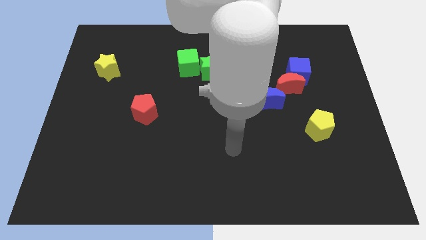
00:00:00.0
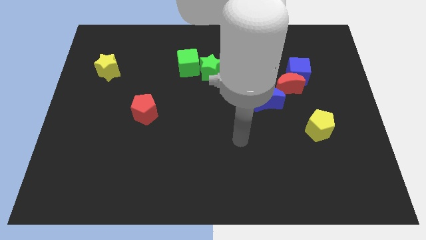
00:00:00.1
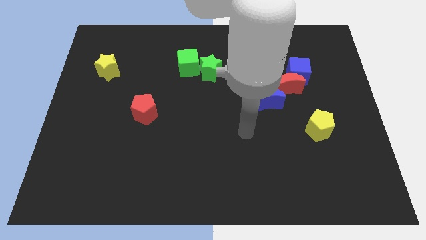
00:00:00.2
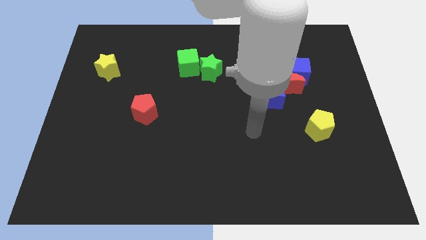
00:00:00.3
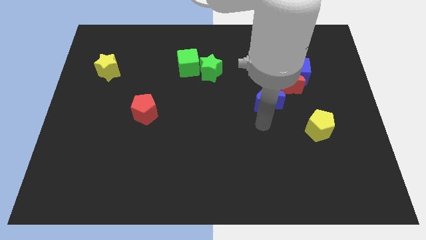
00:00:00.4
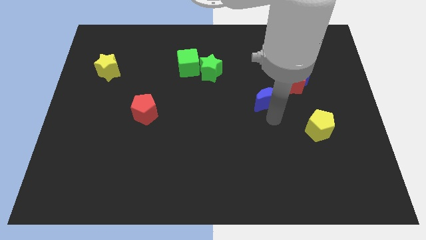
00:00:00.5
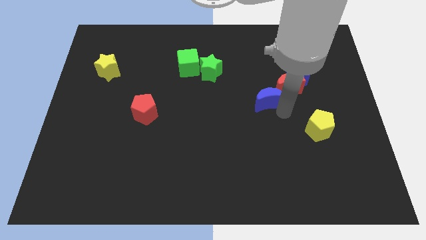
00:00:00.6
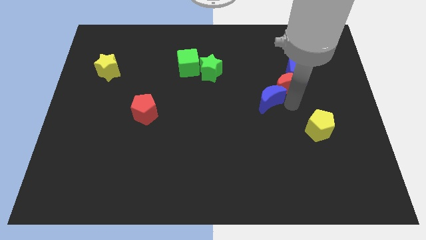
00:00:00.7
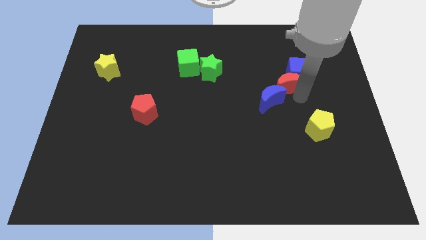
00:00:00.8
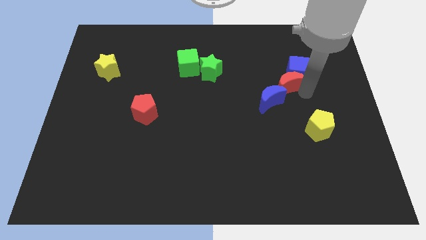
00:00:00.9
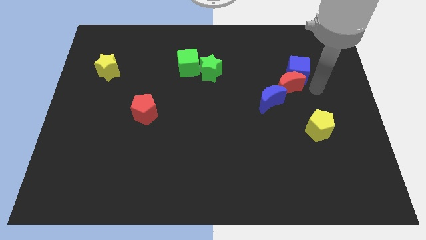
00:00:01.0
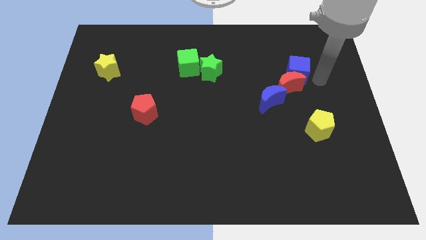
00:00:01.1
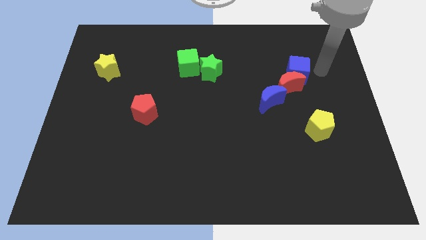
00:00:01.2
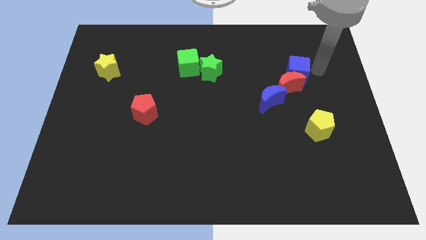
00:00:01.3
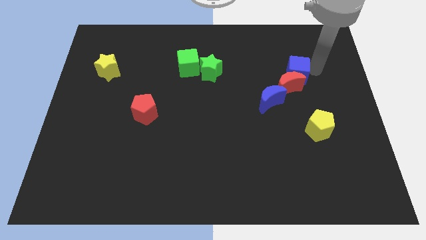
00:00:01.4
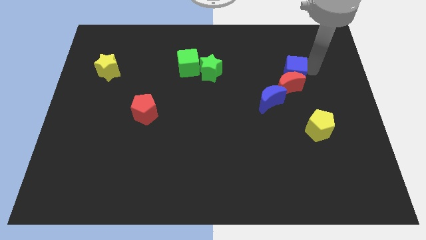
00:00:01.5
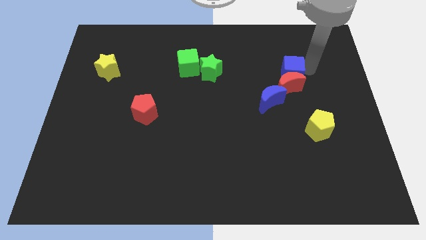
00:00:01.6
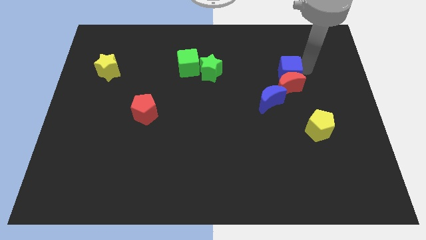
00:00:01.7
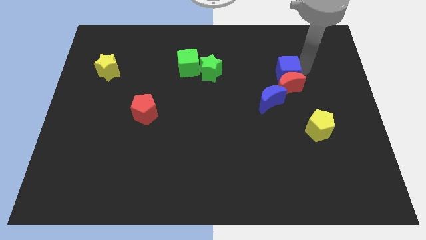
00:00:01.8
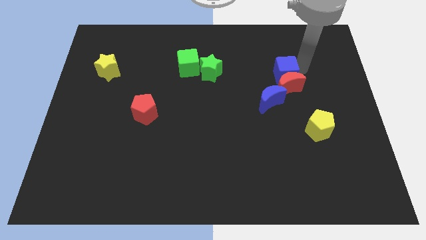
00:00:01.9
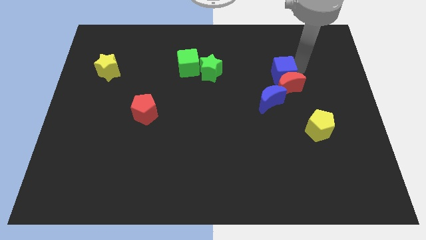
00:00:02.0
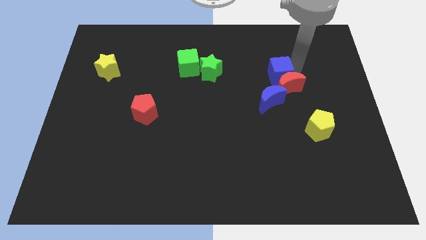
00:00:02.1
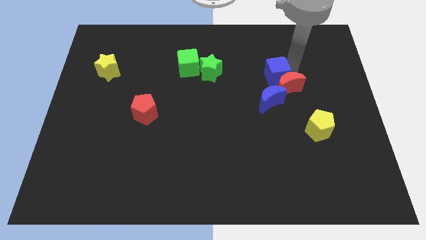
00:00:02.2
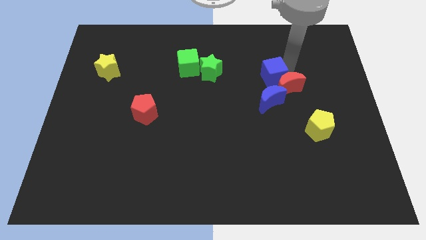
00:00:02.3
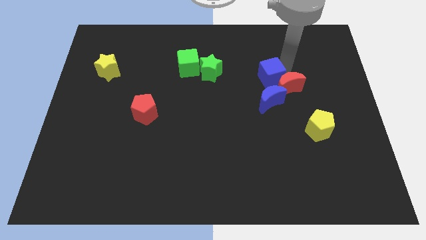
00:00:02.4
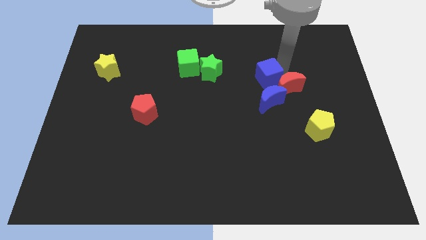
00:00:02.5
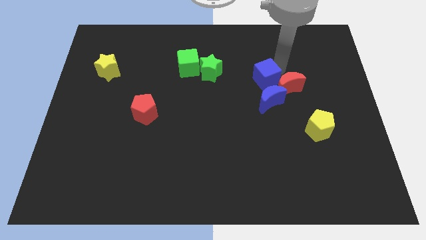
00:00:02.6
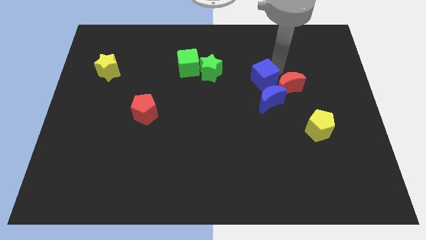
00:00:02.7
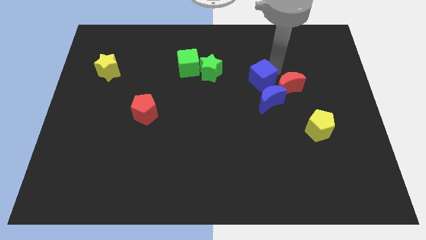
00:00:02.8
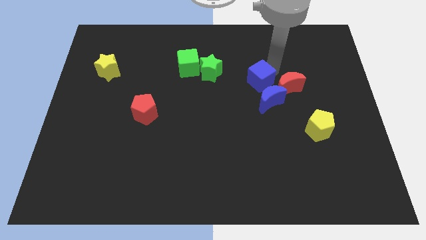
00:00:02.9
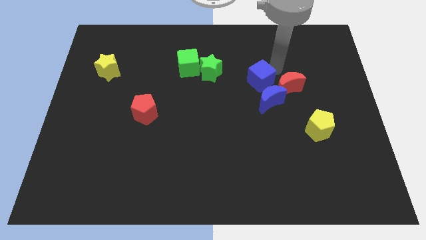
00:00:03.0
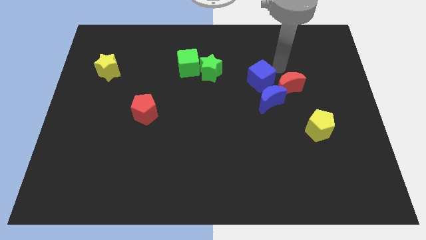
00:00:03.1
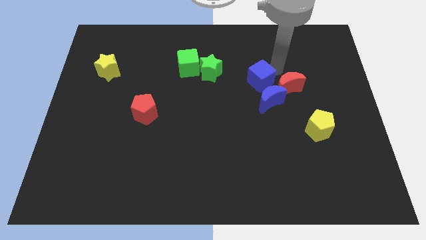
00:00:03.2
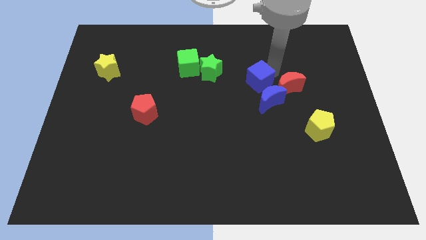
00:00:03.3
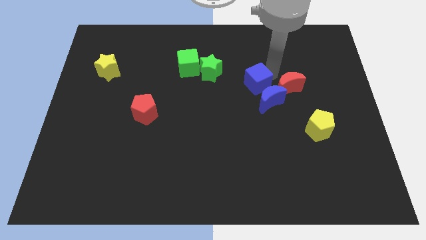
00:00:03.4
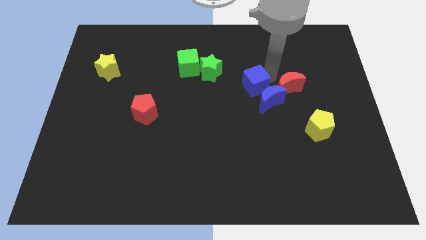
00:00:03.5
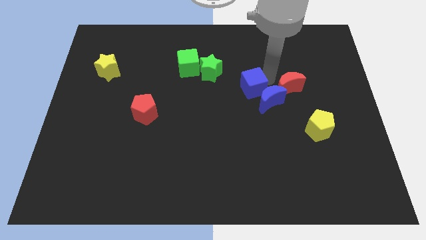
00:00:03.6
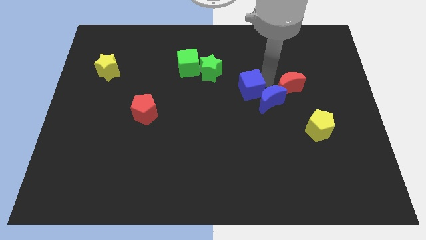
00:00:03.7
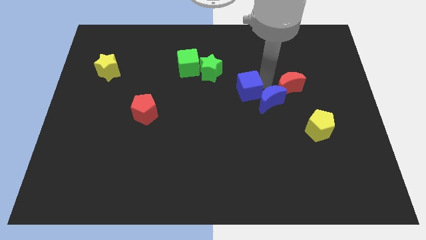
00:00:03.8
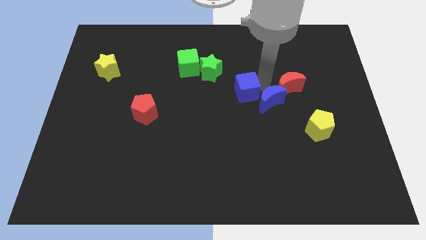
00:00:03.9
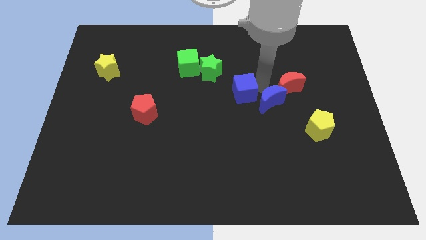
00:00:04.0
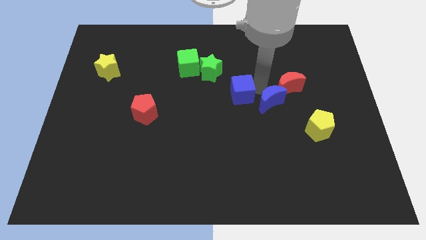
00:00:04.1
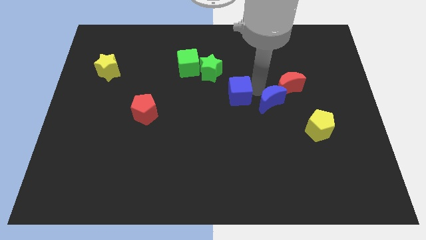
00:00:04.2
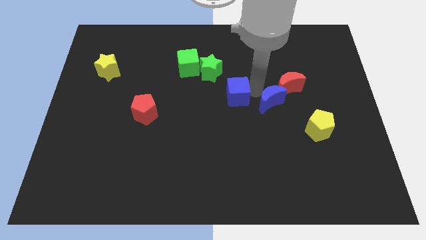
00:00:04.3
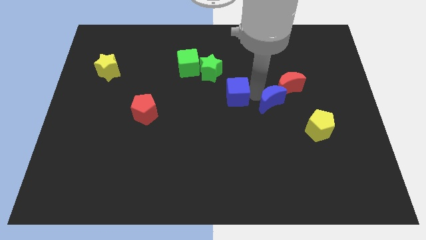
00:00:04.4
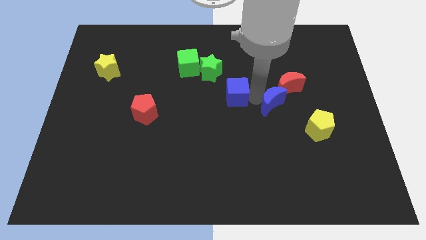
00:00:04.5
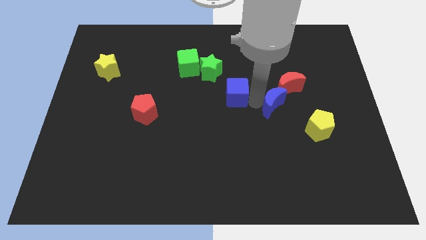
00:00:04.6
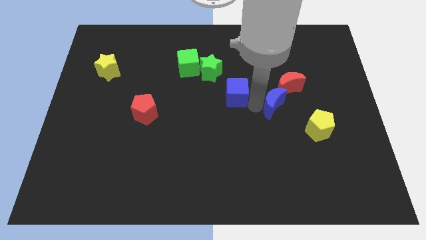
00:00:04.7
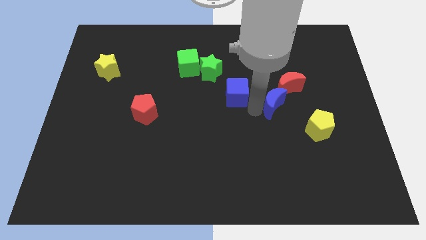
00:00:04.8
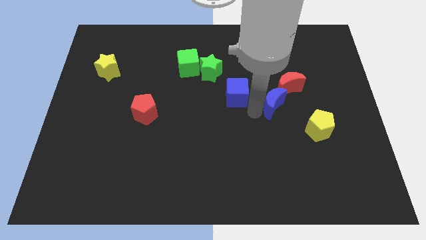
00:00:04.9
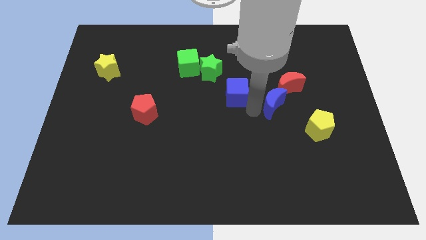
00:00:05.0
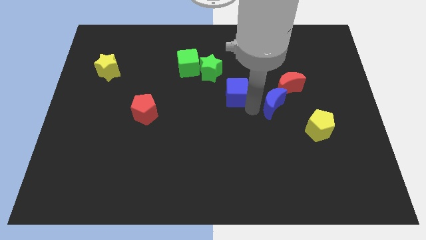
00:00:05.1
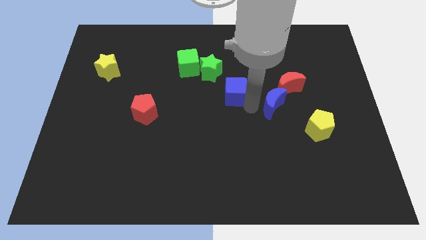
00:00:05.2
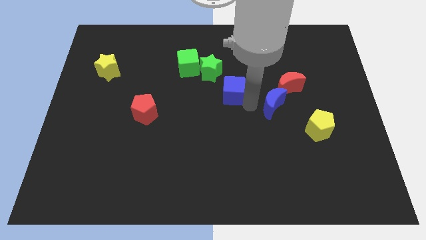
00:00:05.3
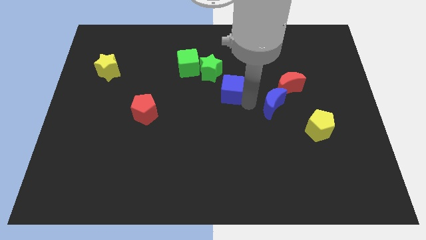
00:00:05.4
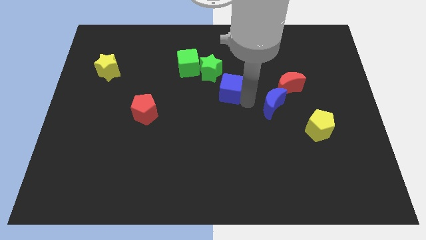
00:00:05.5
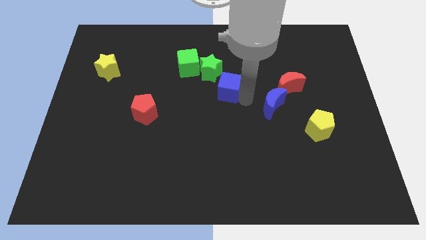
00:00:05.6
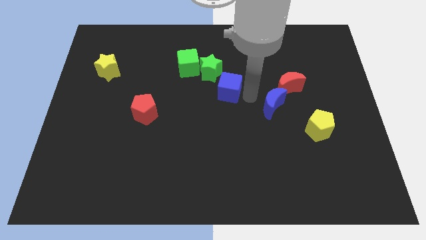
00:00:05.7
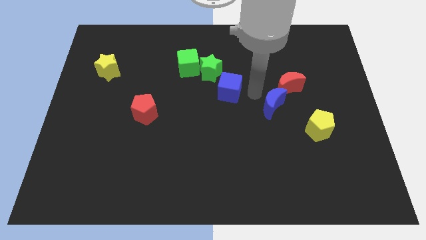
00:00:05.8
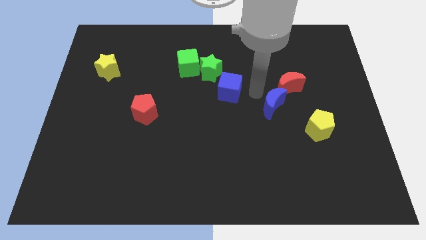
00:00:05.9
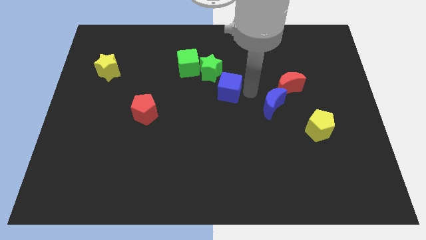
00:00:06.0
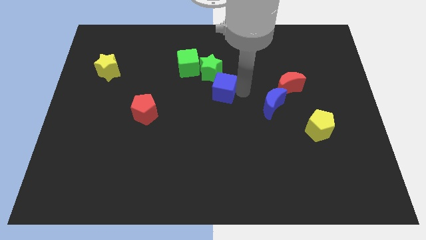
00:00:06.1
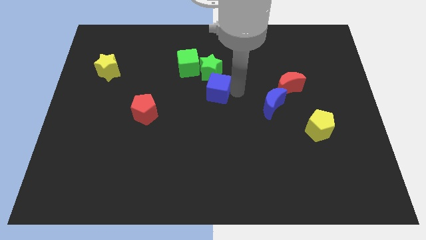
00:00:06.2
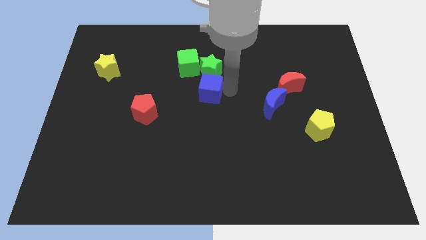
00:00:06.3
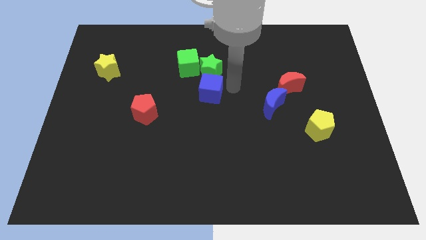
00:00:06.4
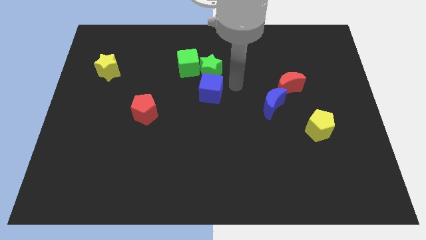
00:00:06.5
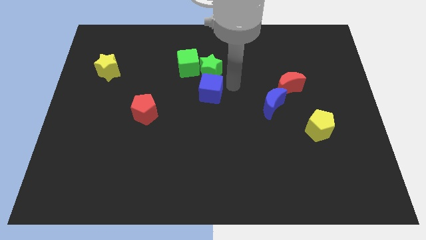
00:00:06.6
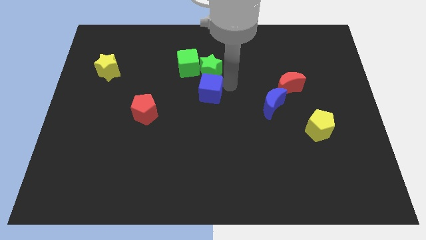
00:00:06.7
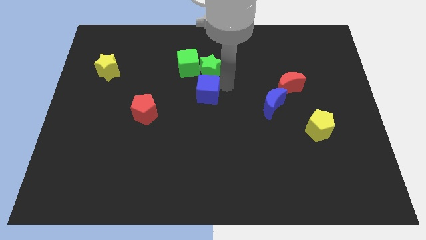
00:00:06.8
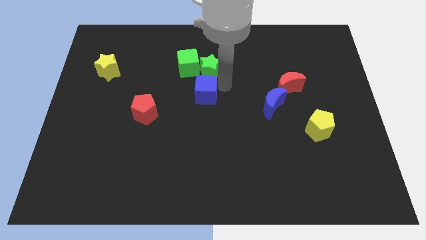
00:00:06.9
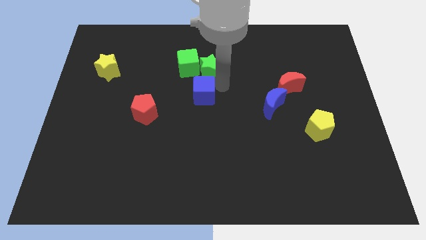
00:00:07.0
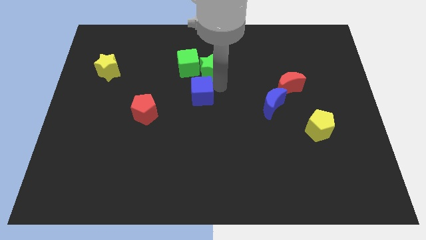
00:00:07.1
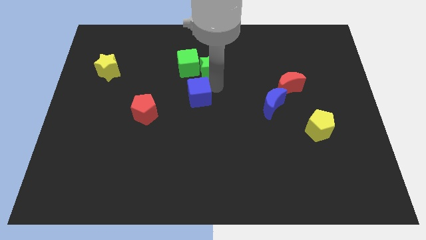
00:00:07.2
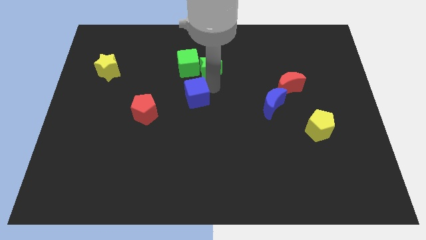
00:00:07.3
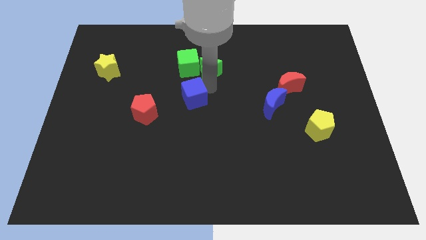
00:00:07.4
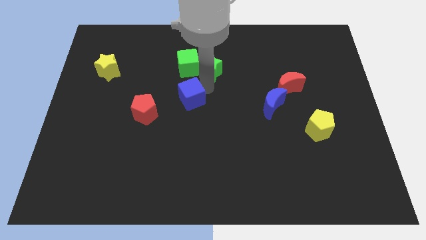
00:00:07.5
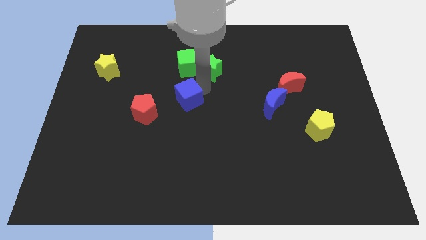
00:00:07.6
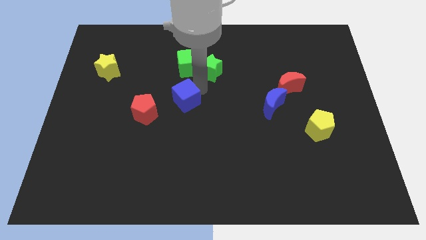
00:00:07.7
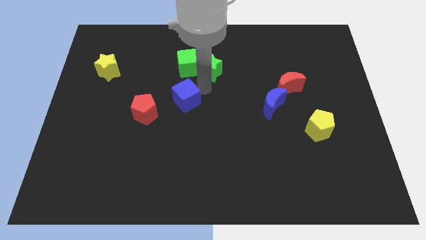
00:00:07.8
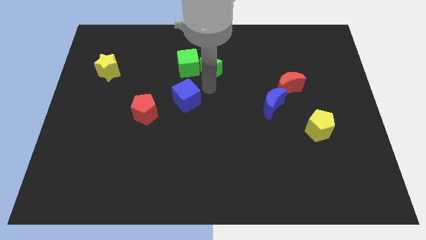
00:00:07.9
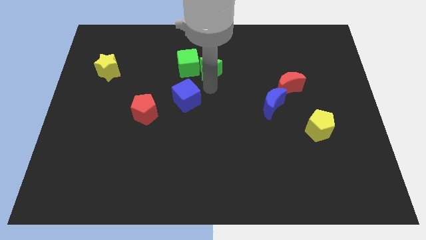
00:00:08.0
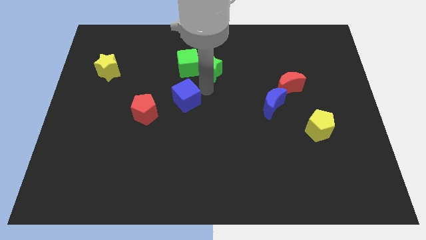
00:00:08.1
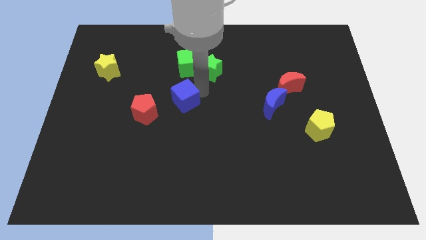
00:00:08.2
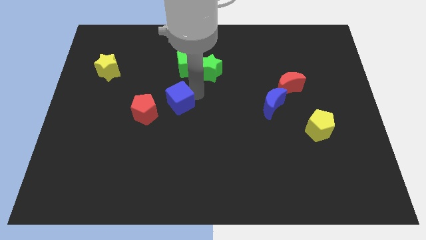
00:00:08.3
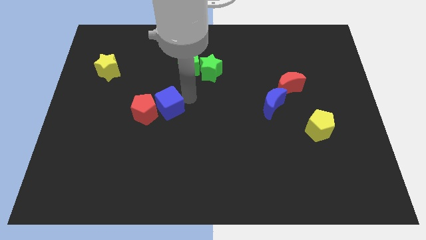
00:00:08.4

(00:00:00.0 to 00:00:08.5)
move the blue cube to the red pentagon

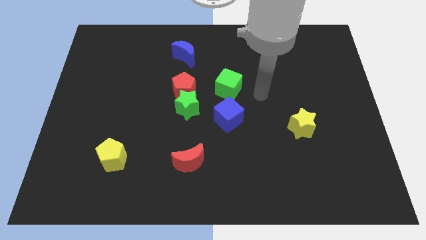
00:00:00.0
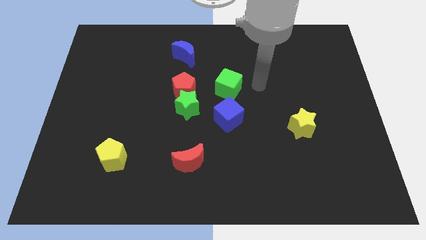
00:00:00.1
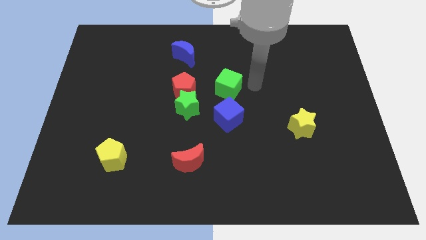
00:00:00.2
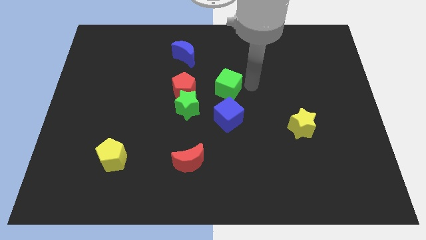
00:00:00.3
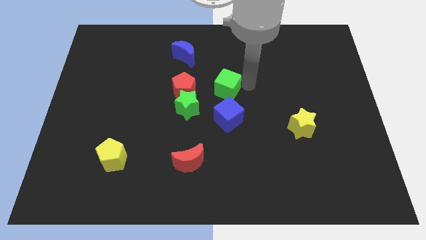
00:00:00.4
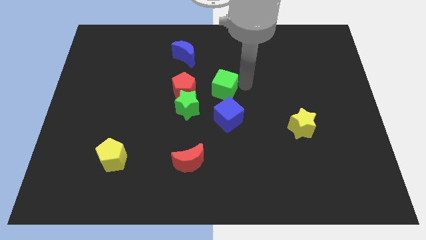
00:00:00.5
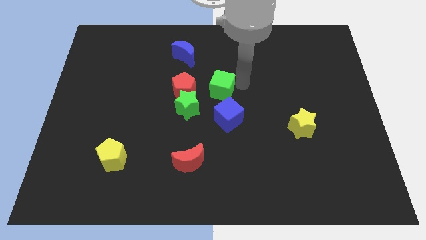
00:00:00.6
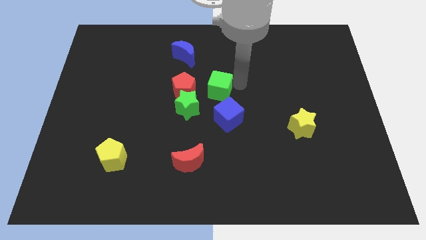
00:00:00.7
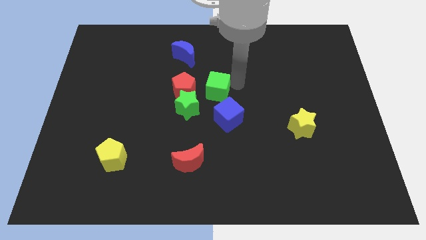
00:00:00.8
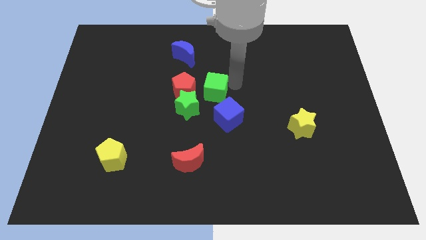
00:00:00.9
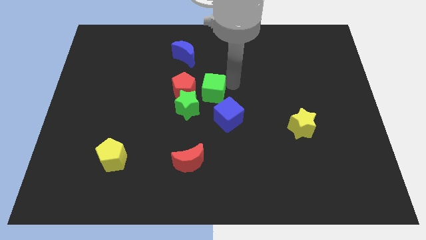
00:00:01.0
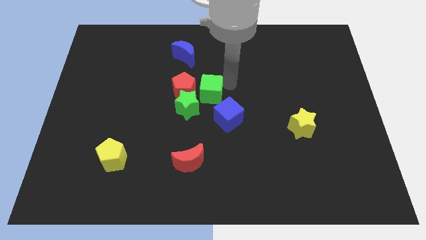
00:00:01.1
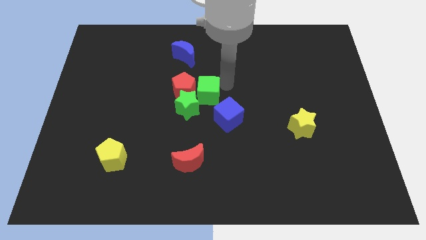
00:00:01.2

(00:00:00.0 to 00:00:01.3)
slide the green cube close to the red pentagon
